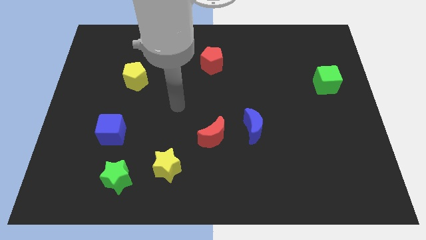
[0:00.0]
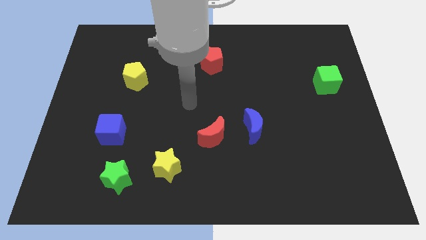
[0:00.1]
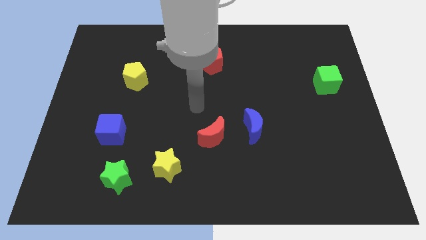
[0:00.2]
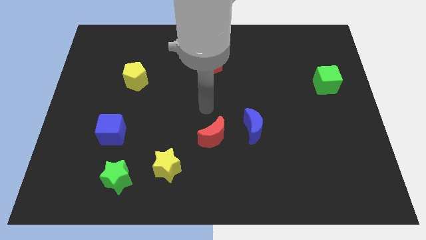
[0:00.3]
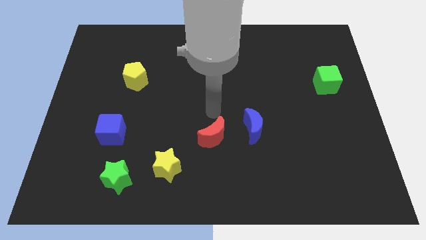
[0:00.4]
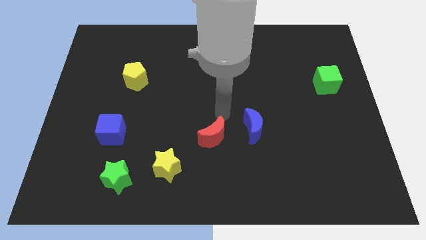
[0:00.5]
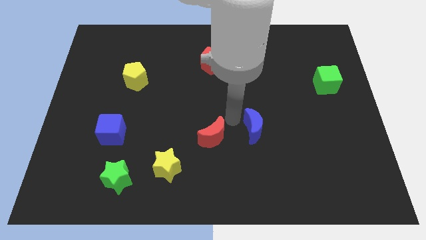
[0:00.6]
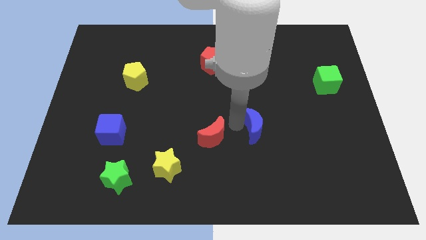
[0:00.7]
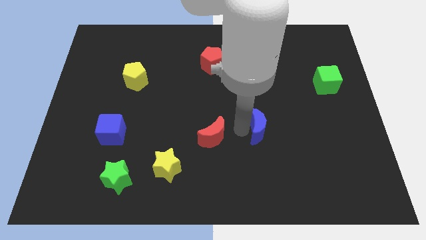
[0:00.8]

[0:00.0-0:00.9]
separate the red moon from the blue moon

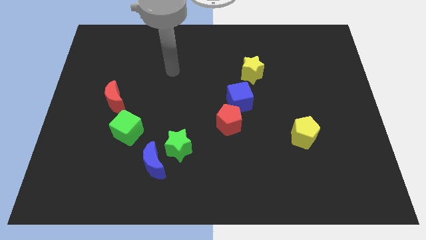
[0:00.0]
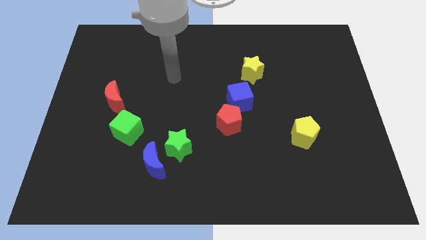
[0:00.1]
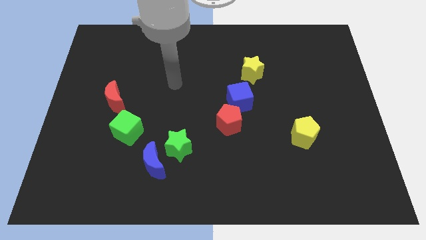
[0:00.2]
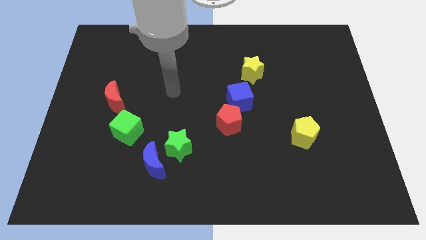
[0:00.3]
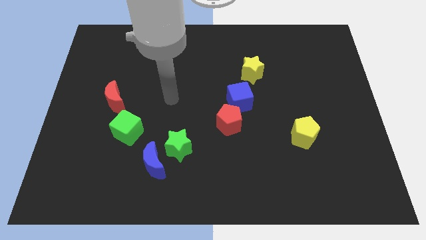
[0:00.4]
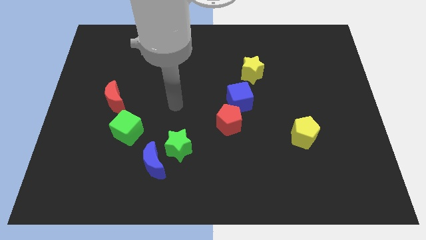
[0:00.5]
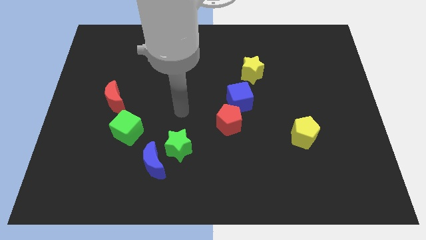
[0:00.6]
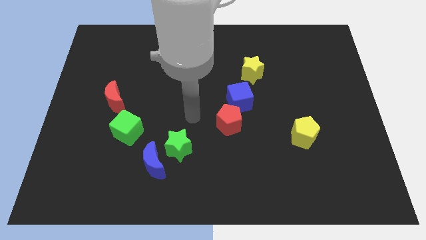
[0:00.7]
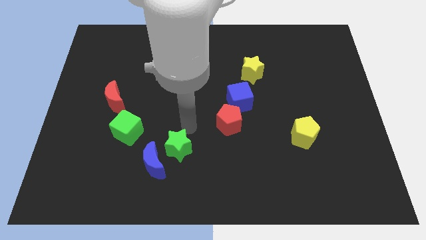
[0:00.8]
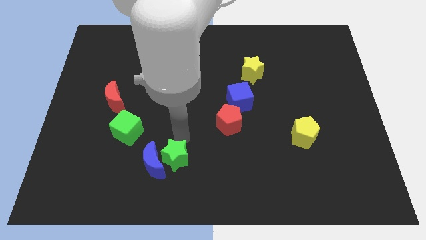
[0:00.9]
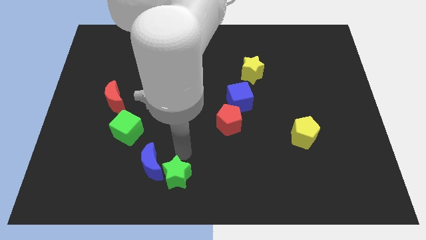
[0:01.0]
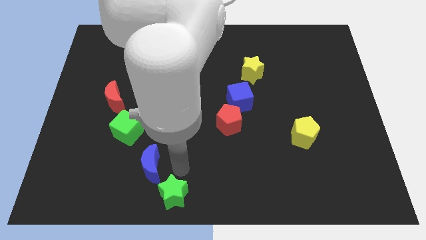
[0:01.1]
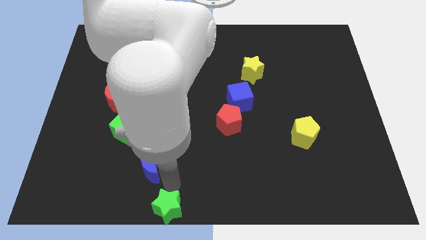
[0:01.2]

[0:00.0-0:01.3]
move the blue moon away from the green star

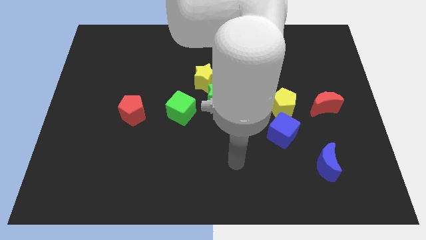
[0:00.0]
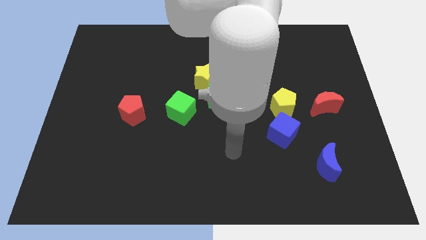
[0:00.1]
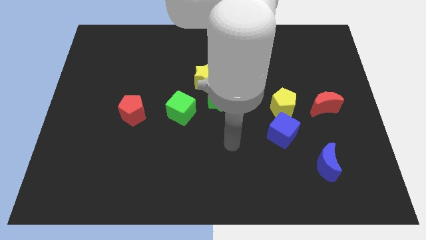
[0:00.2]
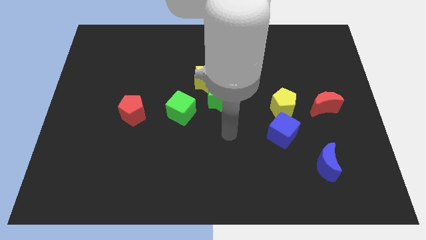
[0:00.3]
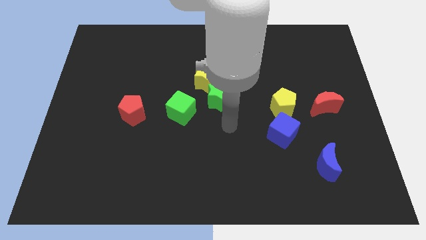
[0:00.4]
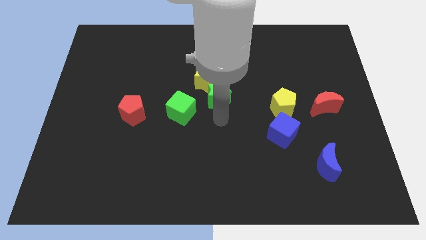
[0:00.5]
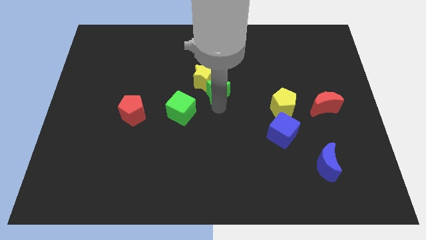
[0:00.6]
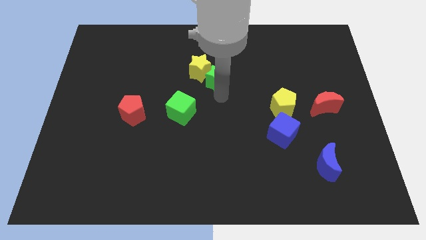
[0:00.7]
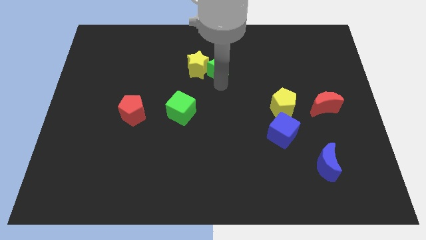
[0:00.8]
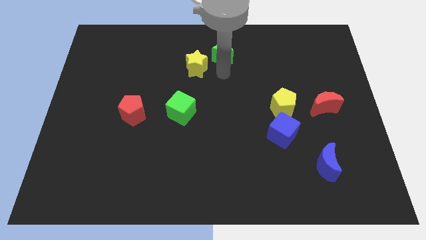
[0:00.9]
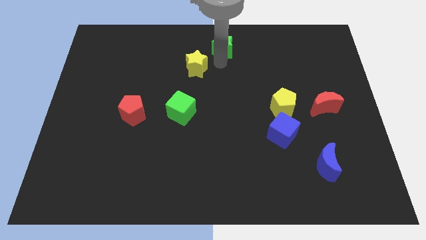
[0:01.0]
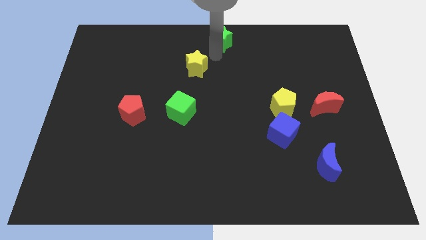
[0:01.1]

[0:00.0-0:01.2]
pull the yellow star apart from the green star

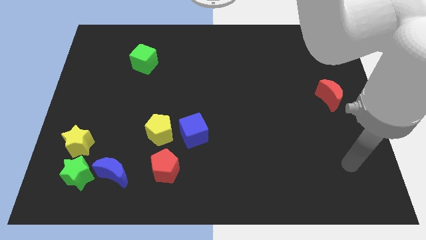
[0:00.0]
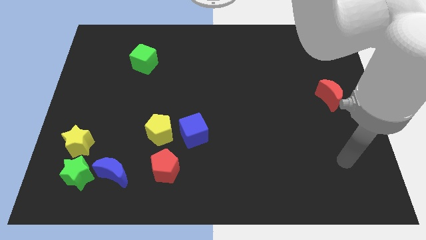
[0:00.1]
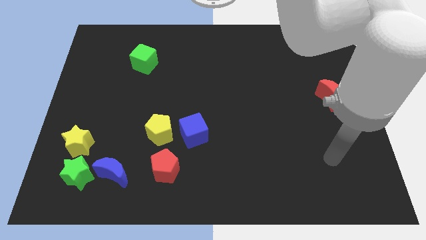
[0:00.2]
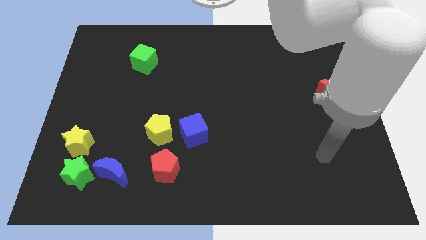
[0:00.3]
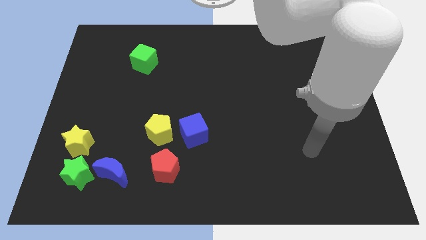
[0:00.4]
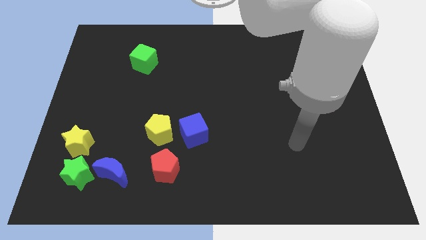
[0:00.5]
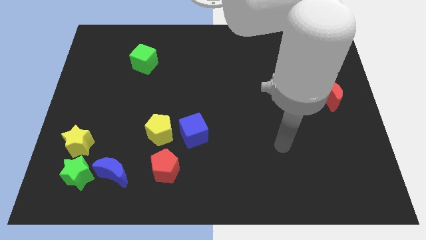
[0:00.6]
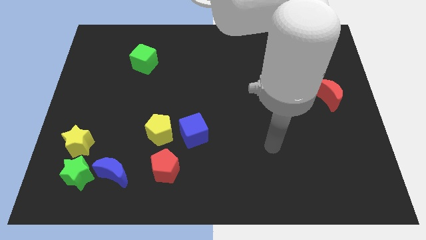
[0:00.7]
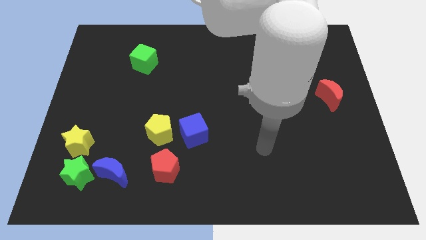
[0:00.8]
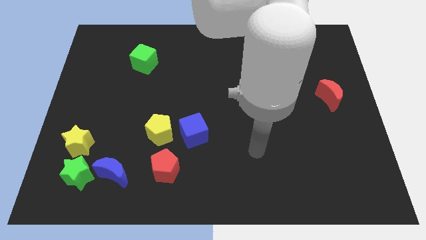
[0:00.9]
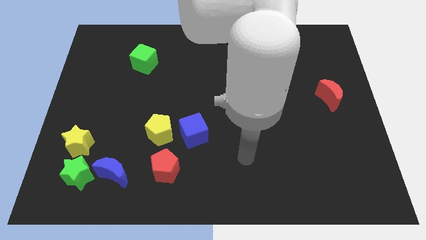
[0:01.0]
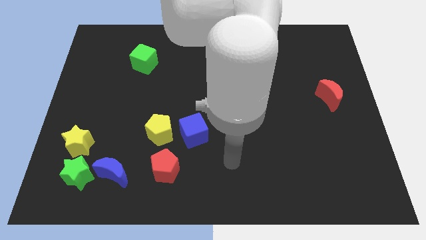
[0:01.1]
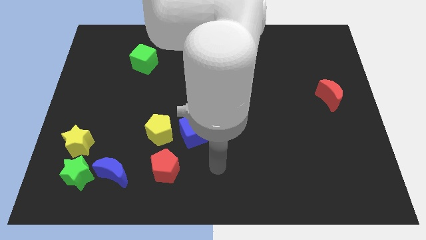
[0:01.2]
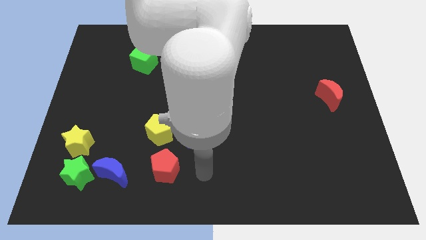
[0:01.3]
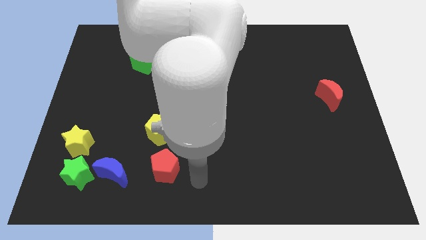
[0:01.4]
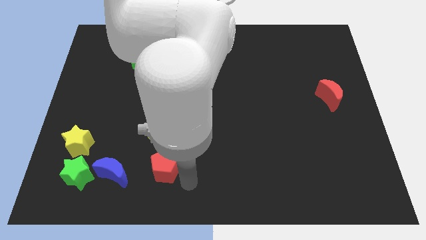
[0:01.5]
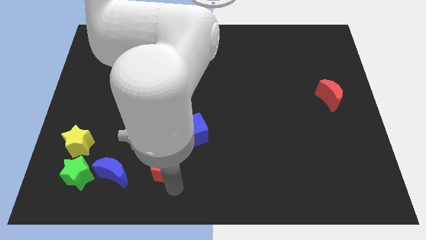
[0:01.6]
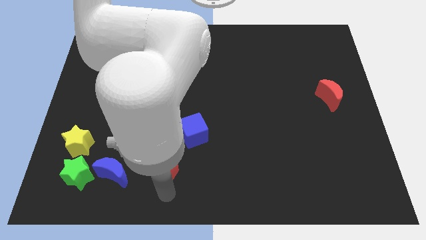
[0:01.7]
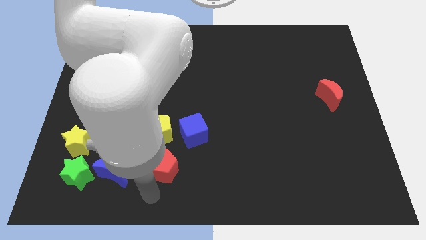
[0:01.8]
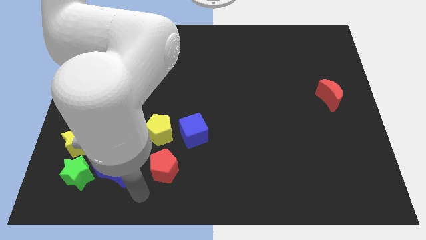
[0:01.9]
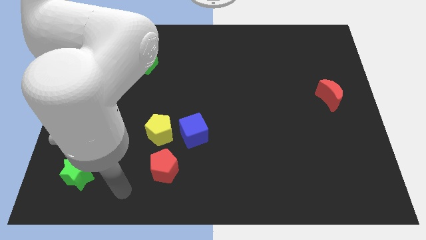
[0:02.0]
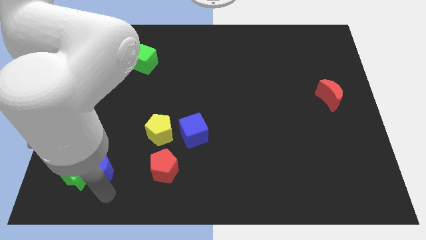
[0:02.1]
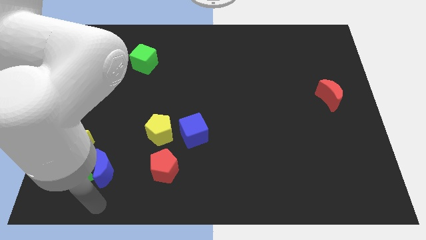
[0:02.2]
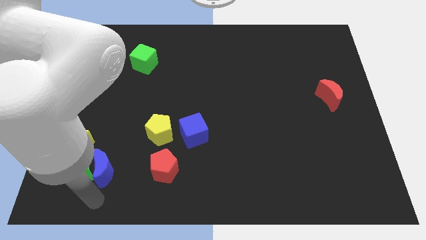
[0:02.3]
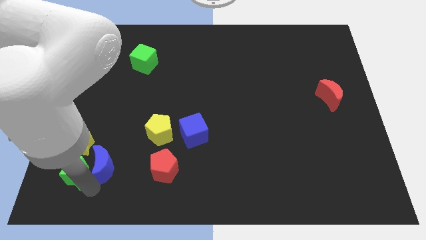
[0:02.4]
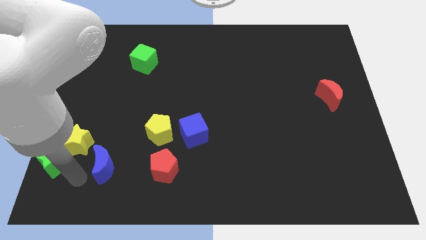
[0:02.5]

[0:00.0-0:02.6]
pull the blue moon apart from the green star

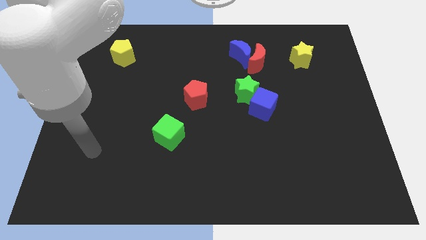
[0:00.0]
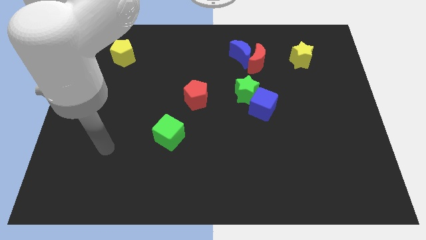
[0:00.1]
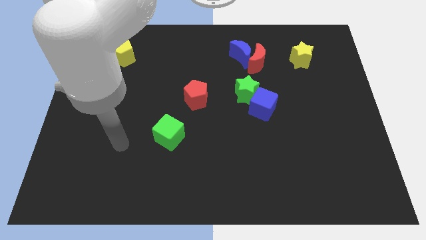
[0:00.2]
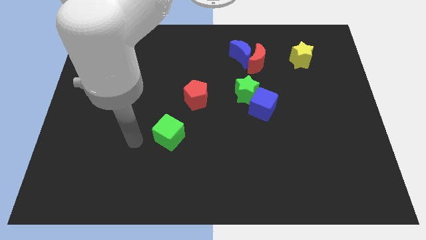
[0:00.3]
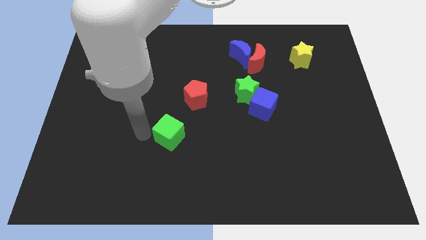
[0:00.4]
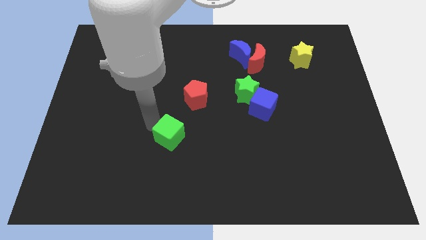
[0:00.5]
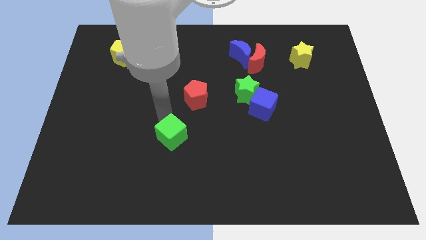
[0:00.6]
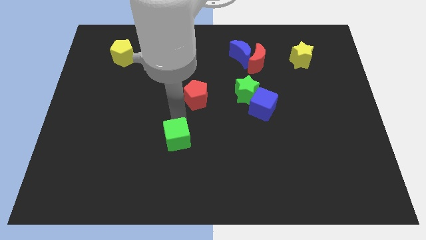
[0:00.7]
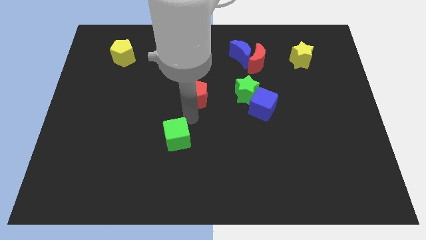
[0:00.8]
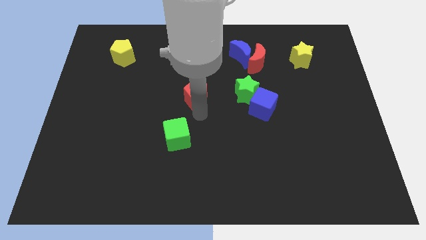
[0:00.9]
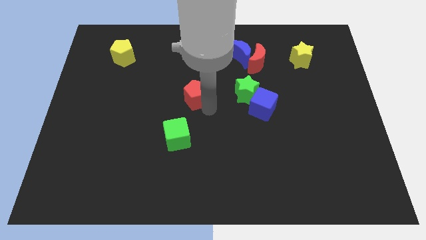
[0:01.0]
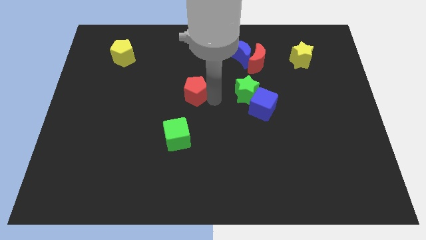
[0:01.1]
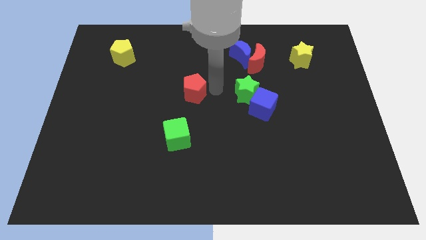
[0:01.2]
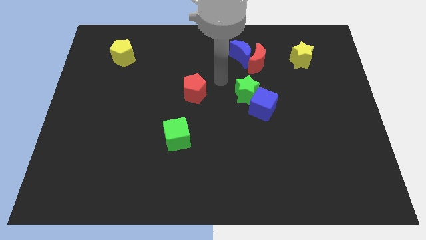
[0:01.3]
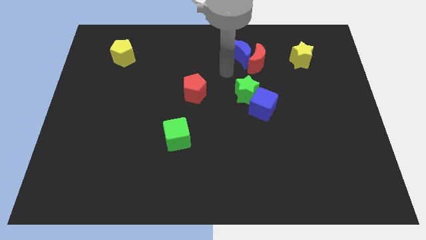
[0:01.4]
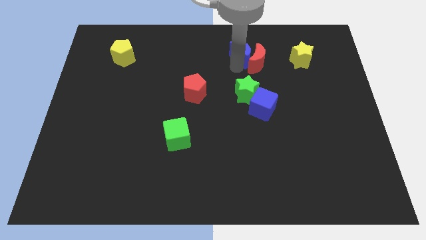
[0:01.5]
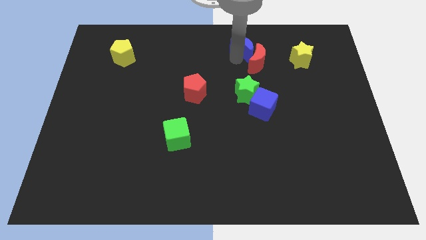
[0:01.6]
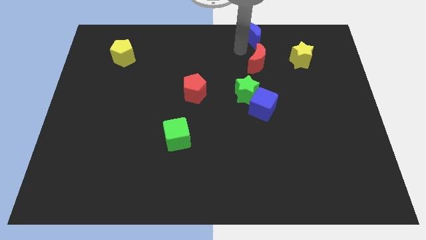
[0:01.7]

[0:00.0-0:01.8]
move the red moon away from the blue moon

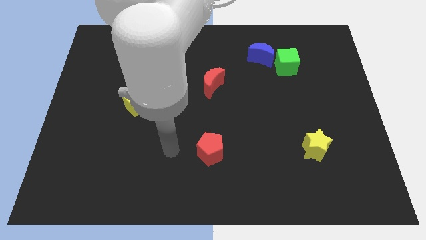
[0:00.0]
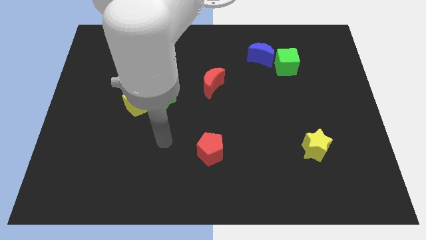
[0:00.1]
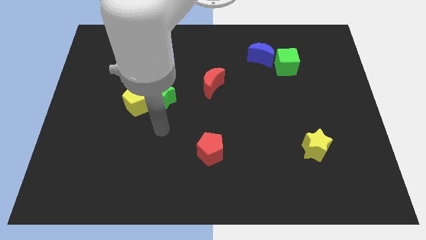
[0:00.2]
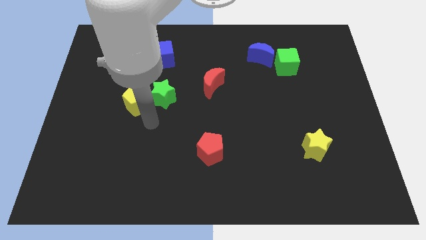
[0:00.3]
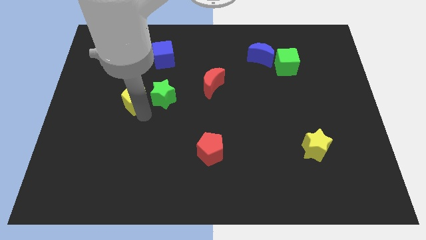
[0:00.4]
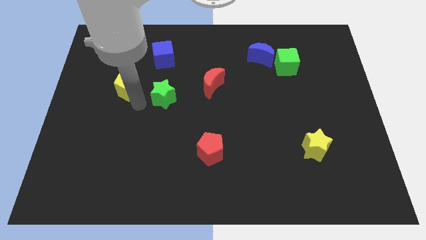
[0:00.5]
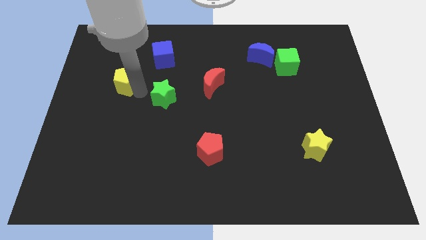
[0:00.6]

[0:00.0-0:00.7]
pull the green star apart from the yellow pentagon

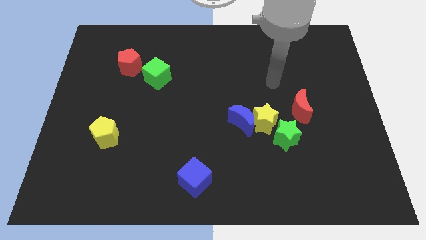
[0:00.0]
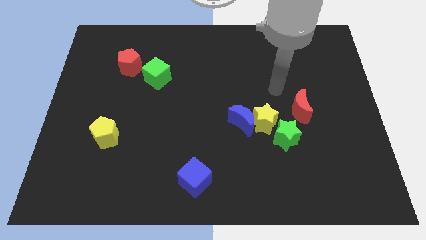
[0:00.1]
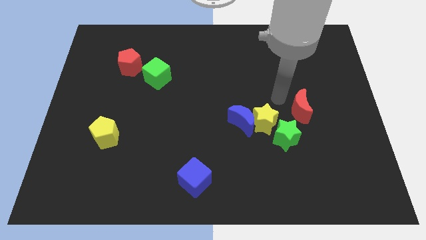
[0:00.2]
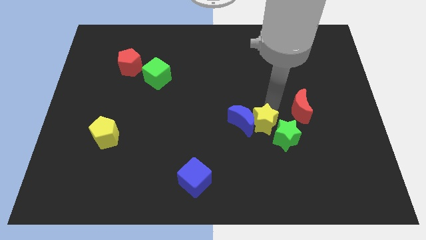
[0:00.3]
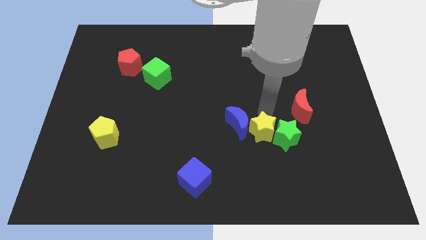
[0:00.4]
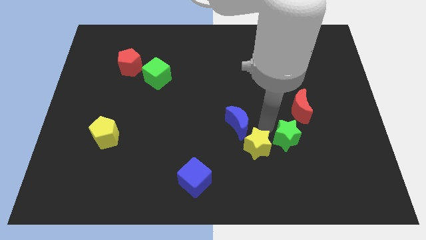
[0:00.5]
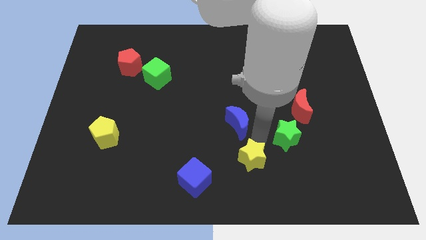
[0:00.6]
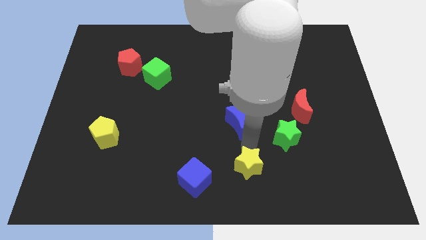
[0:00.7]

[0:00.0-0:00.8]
pull the blue moon apart from the yellow star
